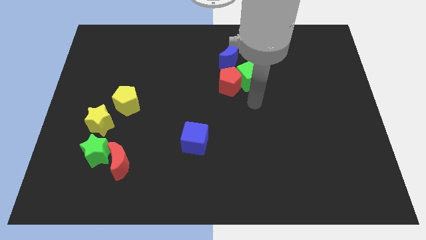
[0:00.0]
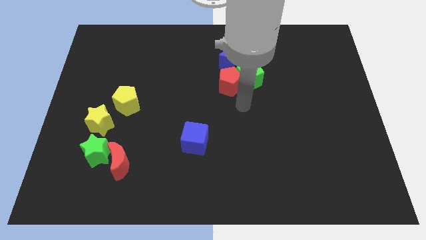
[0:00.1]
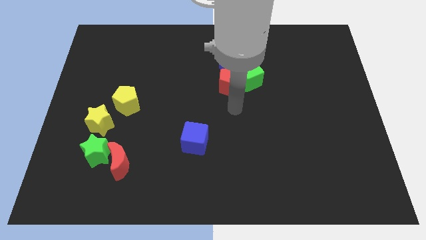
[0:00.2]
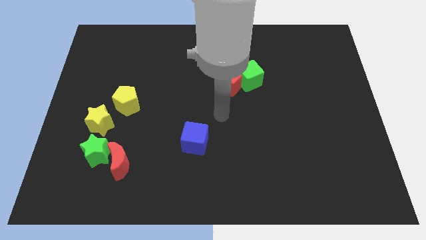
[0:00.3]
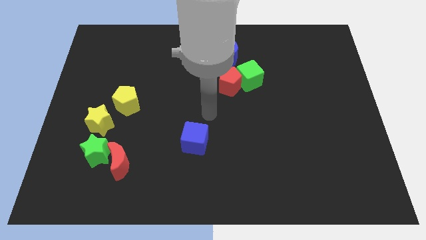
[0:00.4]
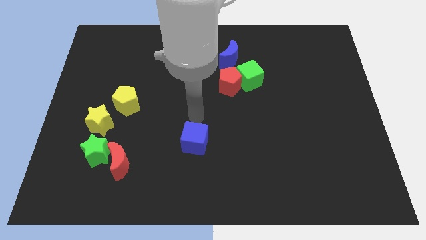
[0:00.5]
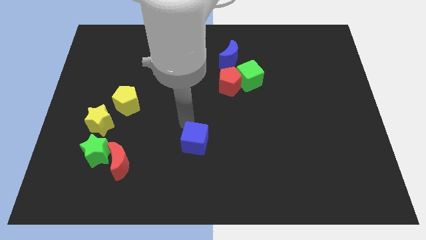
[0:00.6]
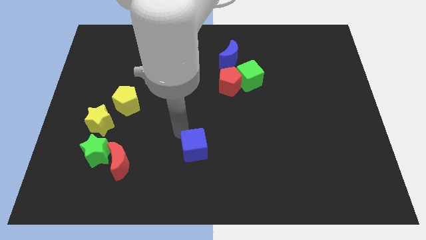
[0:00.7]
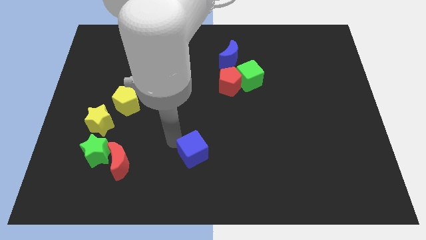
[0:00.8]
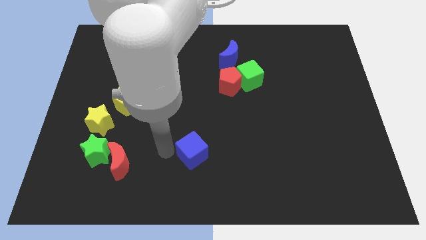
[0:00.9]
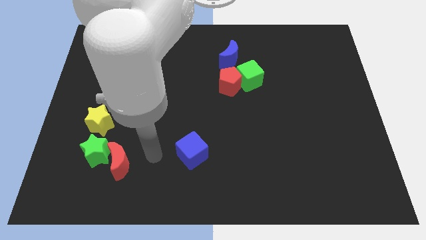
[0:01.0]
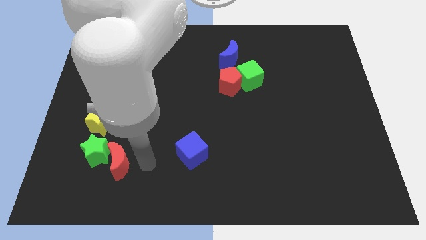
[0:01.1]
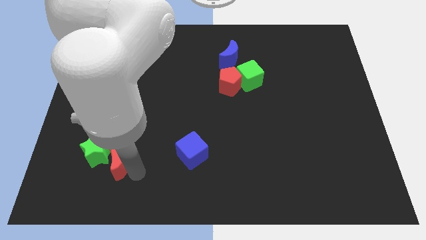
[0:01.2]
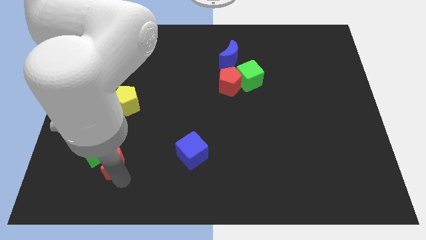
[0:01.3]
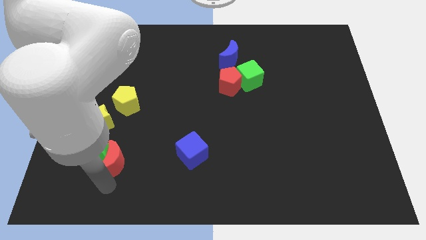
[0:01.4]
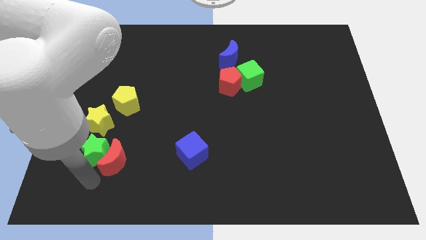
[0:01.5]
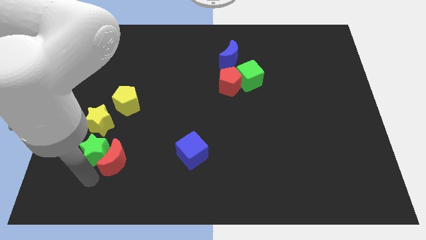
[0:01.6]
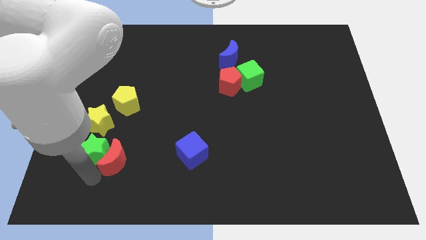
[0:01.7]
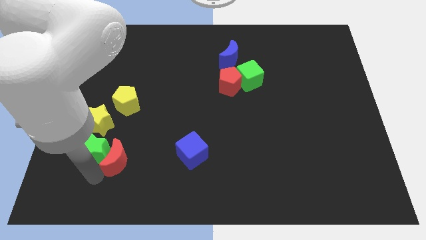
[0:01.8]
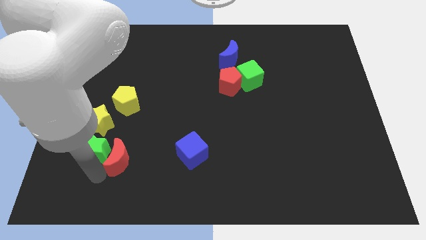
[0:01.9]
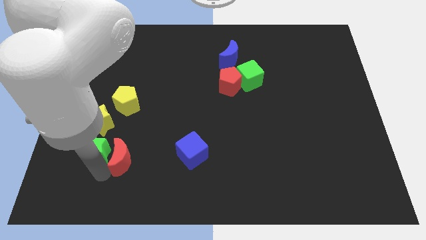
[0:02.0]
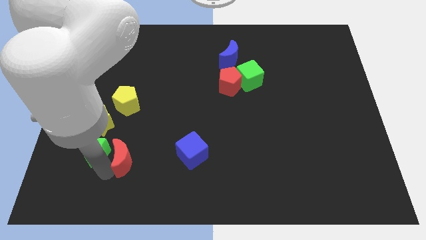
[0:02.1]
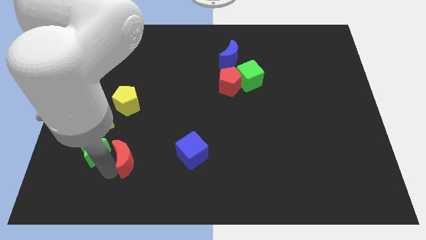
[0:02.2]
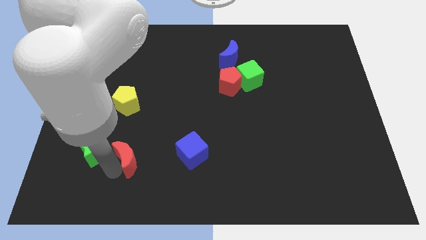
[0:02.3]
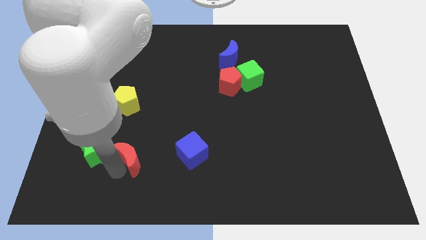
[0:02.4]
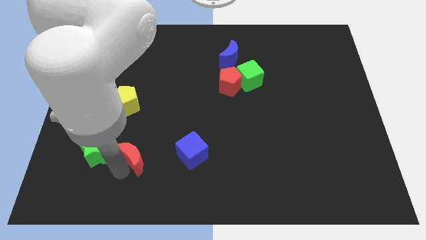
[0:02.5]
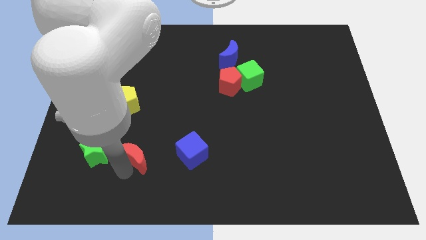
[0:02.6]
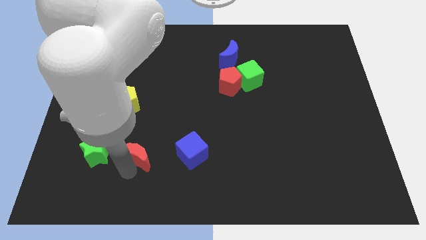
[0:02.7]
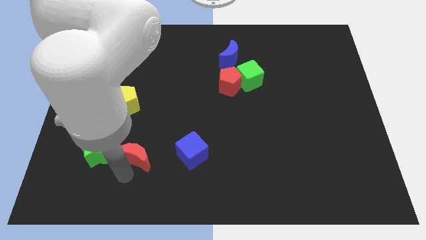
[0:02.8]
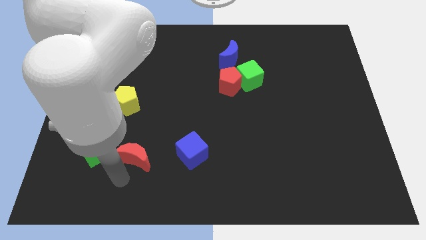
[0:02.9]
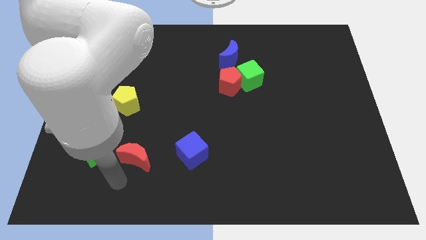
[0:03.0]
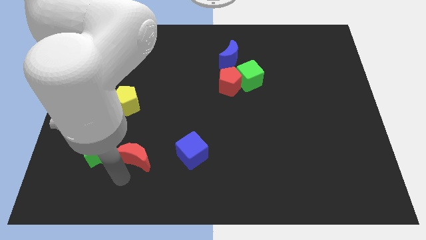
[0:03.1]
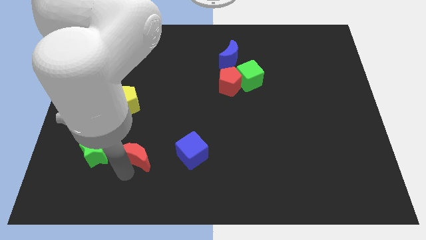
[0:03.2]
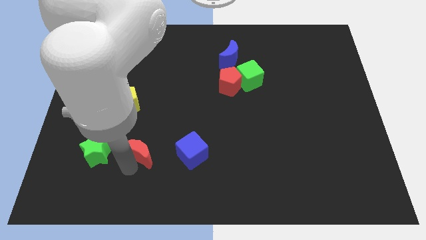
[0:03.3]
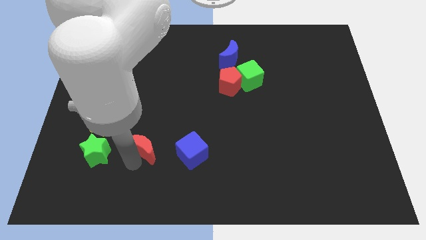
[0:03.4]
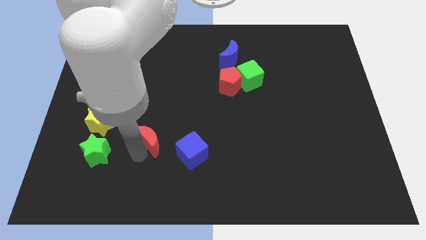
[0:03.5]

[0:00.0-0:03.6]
move the red moon up and to the right diagonally slightly

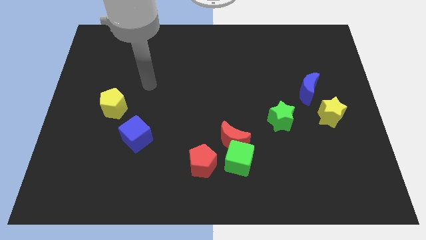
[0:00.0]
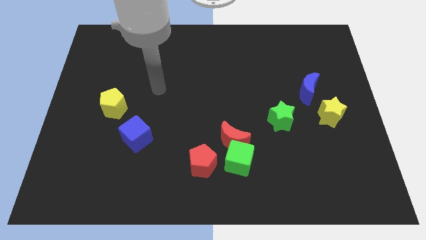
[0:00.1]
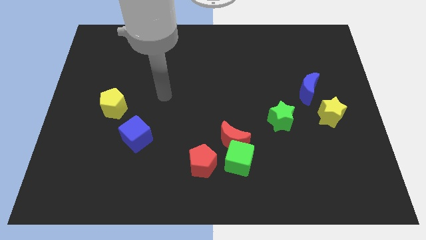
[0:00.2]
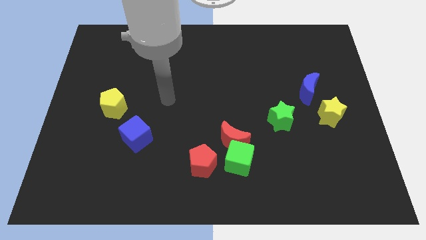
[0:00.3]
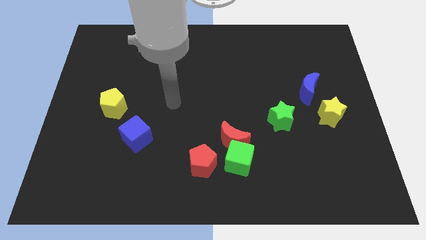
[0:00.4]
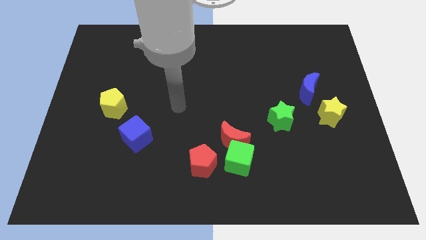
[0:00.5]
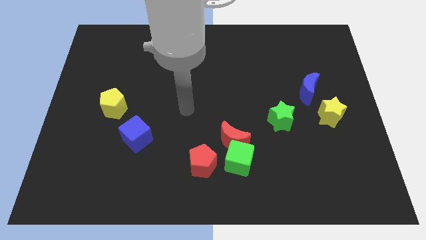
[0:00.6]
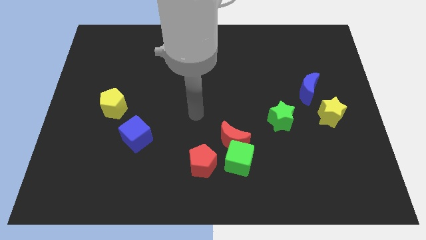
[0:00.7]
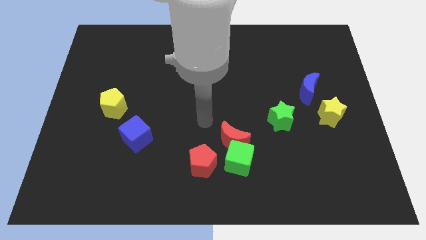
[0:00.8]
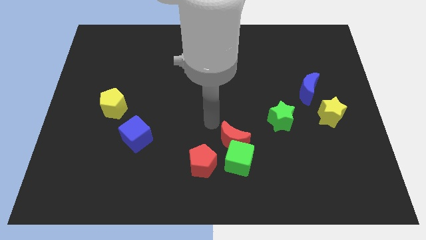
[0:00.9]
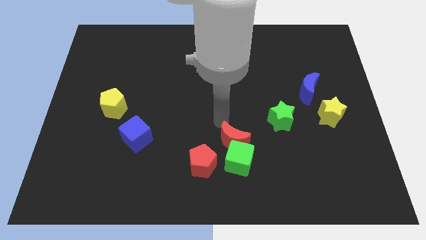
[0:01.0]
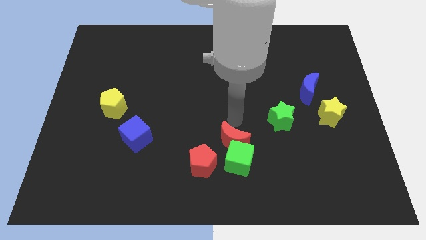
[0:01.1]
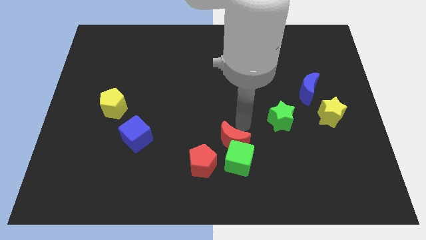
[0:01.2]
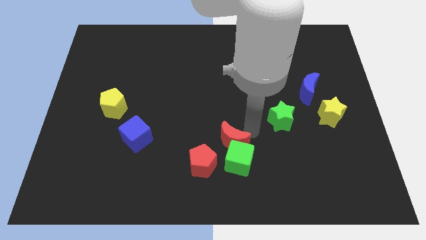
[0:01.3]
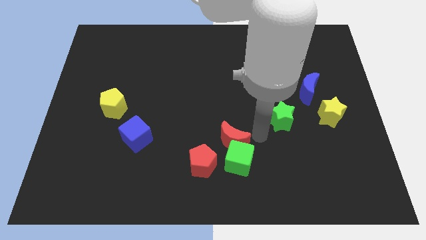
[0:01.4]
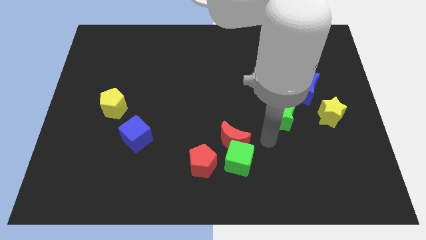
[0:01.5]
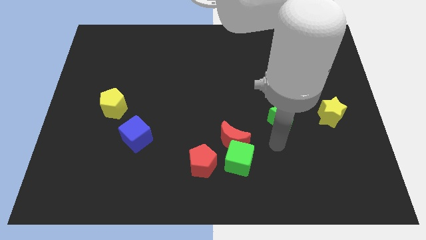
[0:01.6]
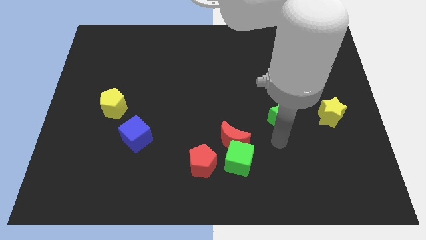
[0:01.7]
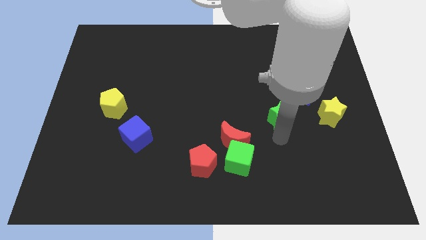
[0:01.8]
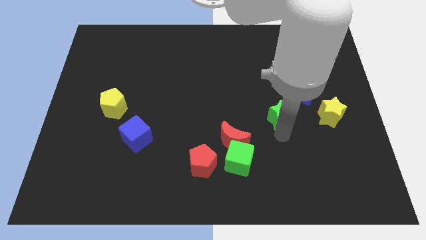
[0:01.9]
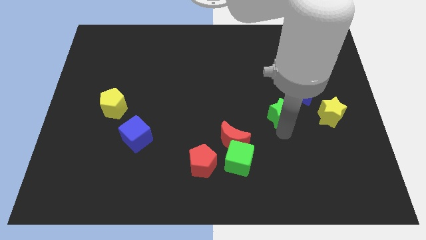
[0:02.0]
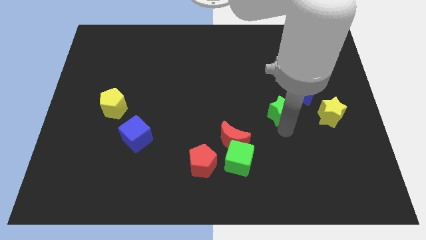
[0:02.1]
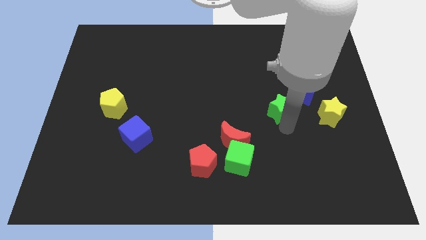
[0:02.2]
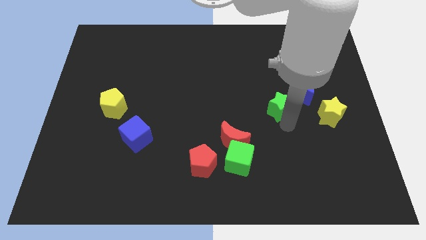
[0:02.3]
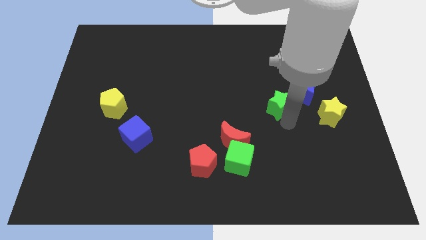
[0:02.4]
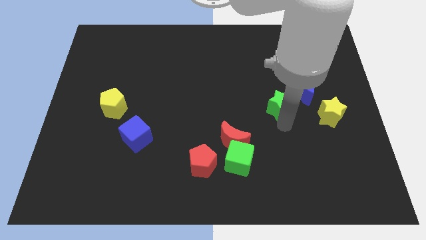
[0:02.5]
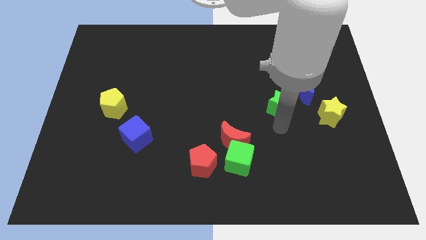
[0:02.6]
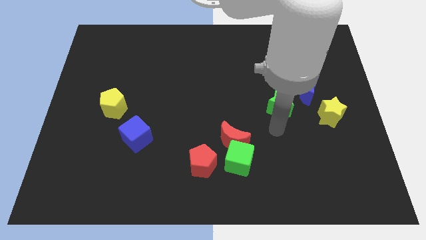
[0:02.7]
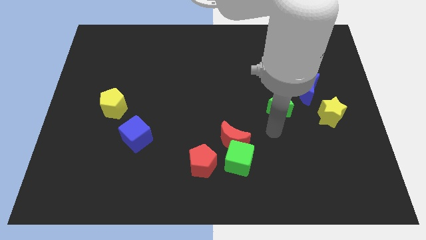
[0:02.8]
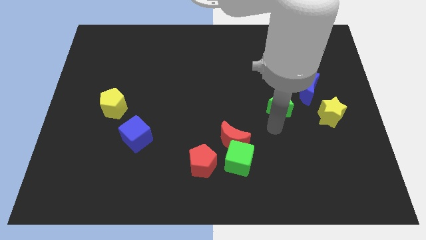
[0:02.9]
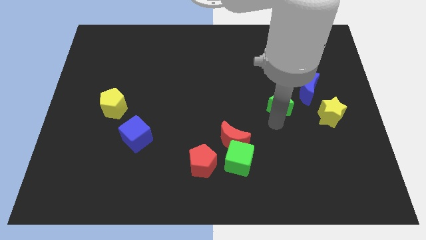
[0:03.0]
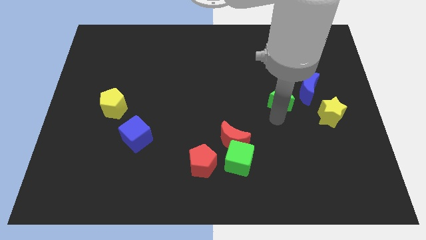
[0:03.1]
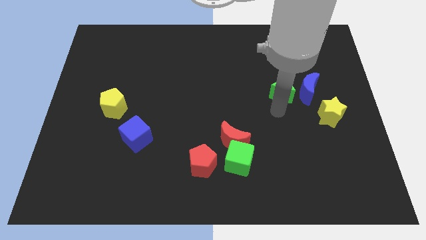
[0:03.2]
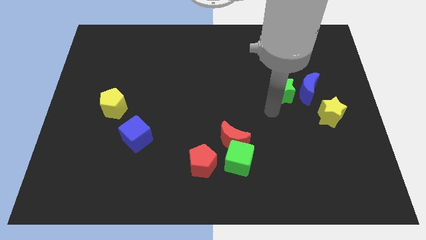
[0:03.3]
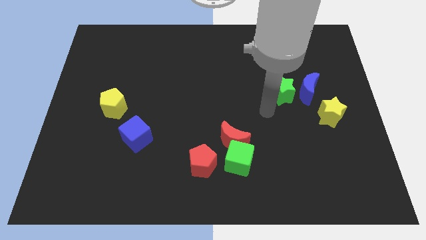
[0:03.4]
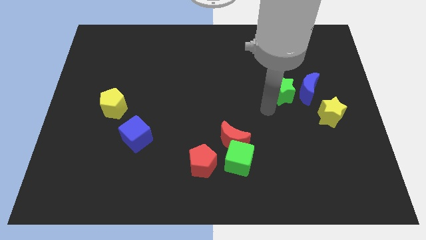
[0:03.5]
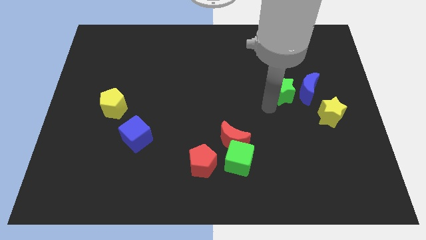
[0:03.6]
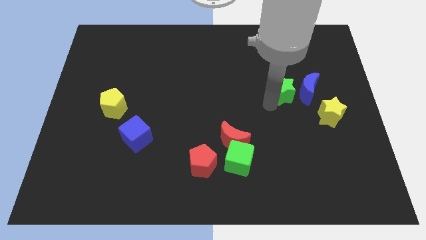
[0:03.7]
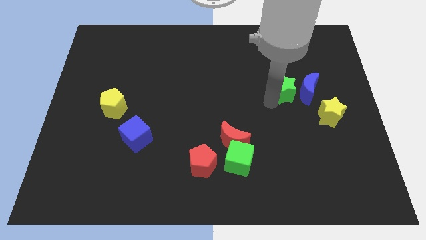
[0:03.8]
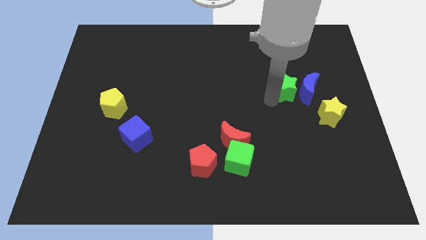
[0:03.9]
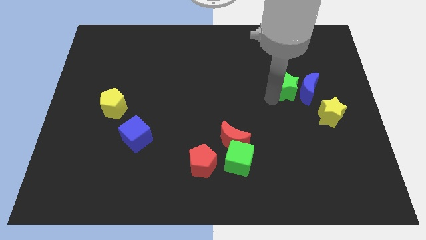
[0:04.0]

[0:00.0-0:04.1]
push the green star a bit upwards and to the right

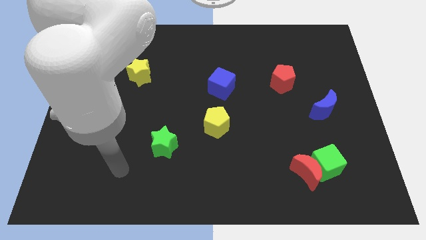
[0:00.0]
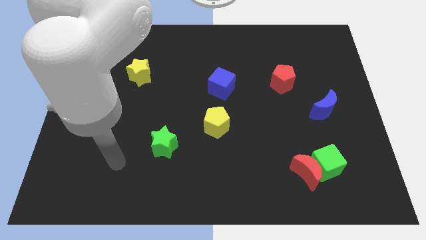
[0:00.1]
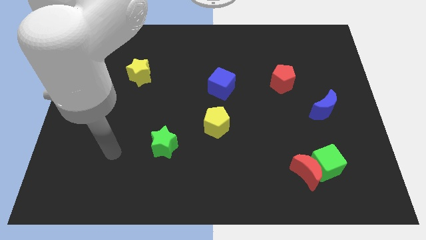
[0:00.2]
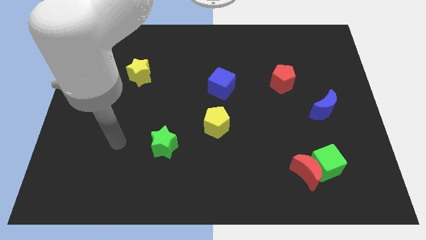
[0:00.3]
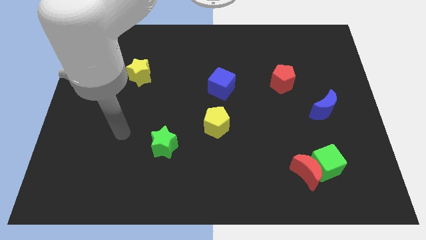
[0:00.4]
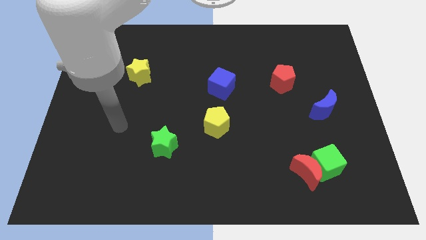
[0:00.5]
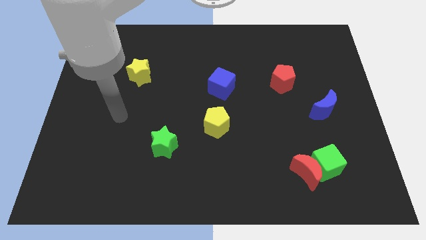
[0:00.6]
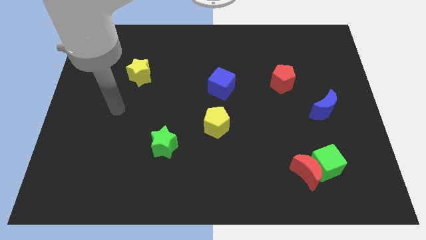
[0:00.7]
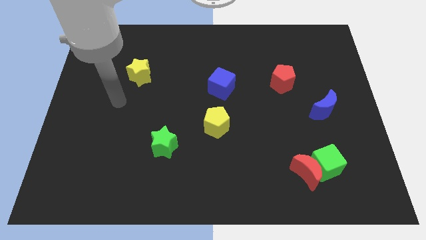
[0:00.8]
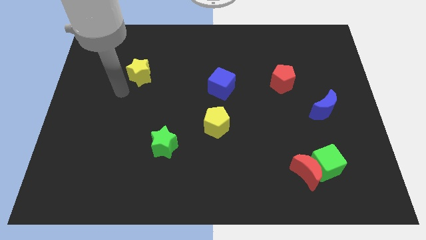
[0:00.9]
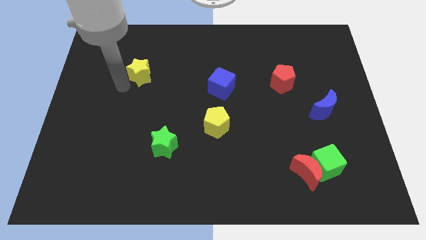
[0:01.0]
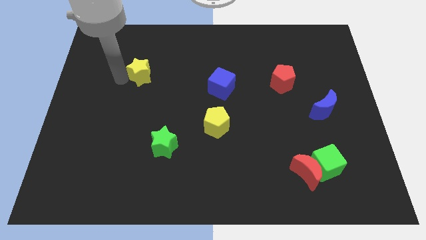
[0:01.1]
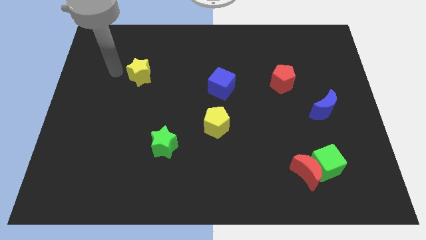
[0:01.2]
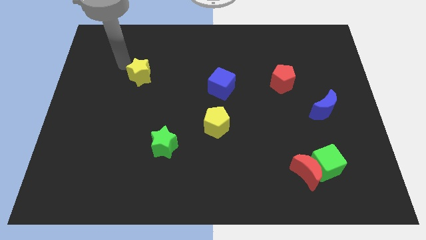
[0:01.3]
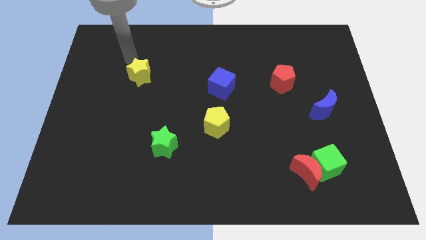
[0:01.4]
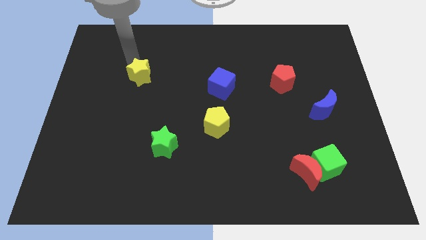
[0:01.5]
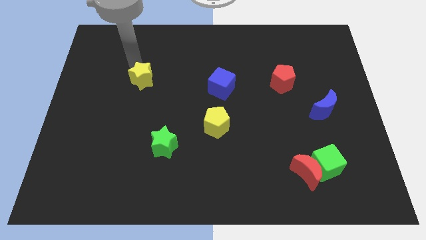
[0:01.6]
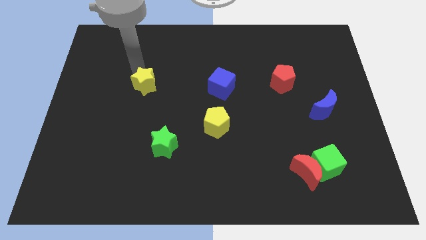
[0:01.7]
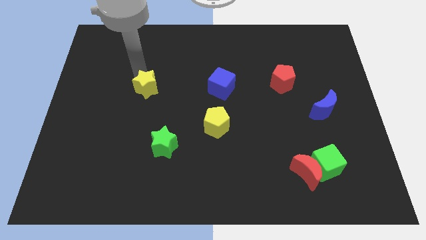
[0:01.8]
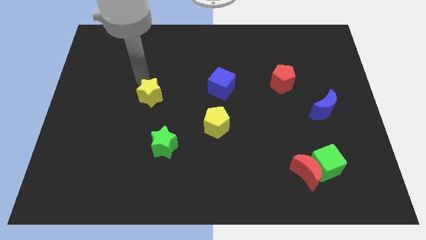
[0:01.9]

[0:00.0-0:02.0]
push the yellow star downwards and to the right diagonally a little bit
